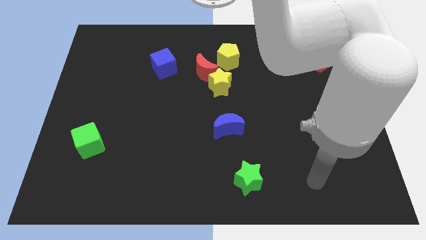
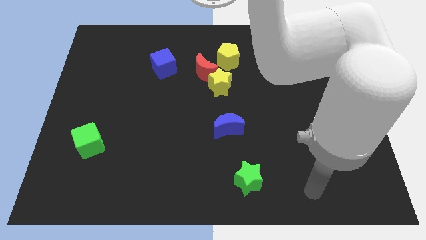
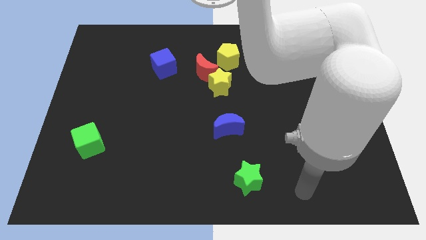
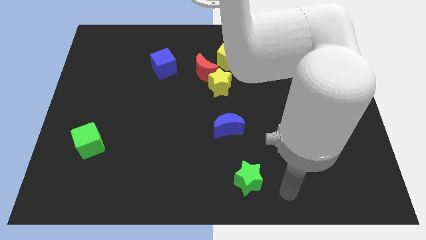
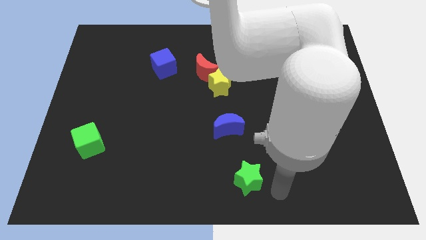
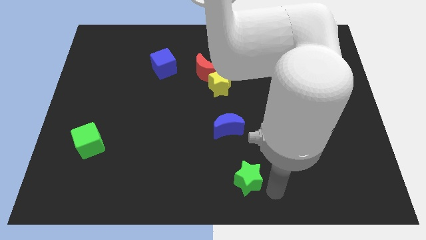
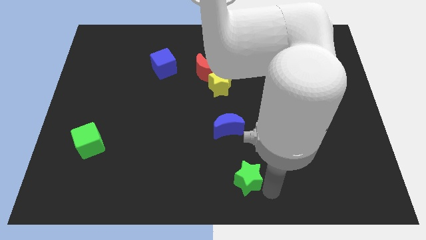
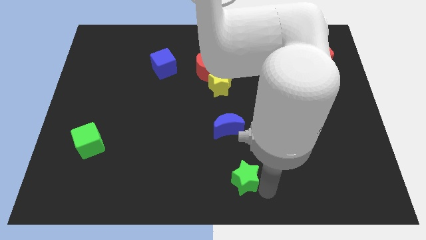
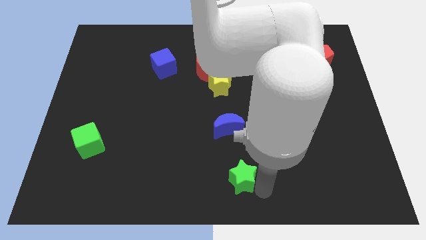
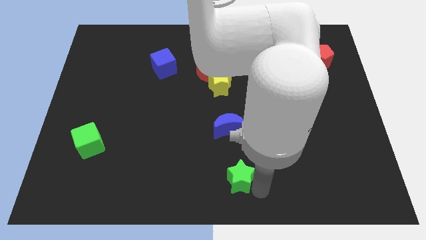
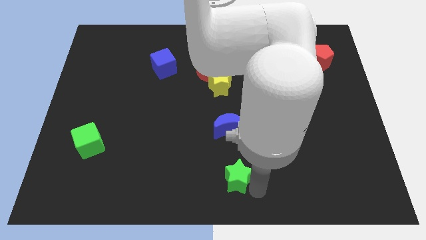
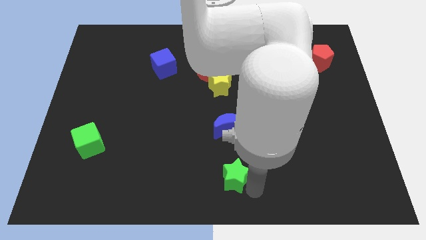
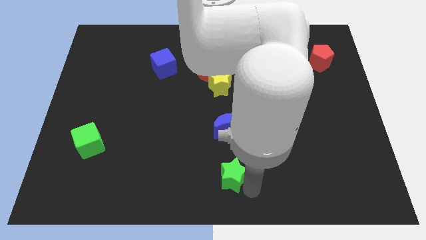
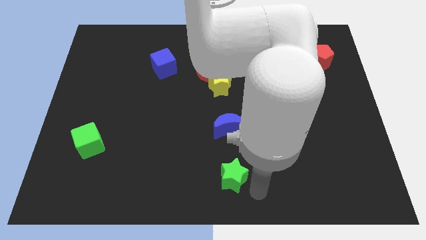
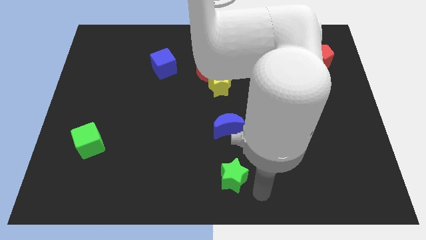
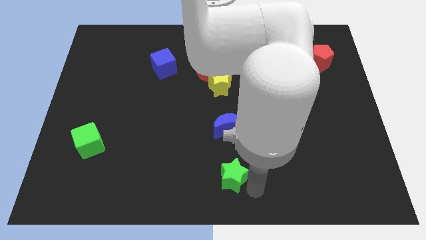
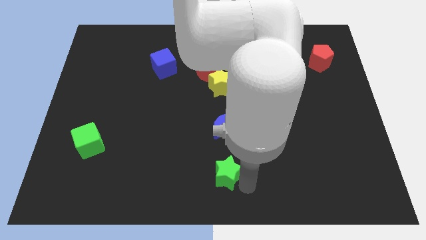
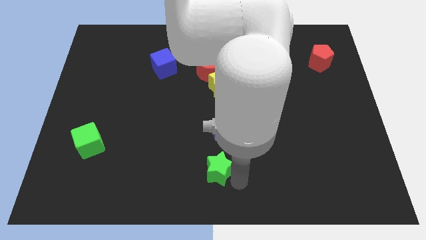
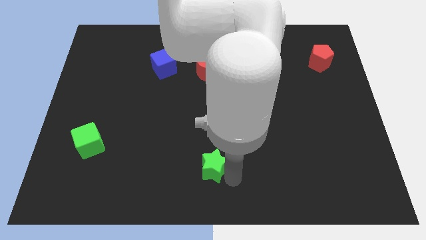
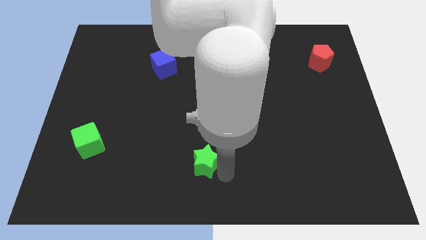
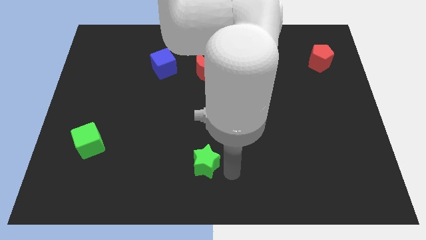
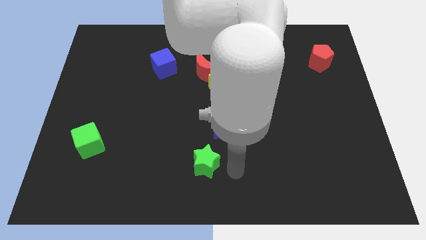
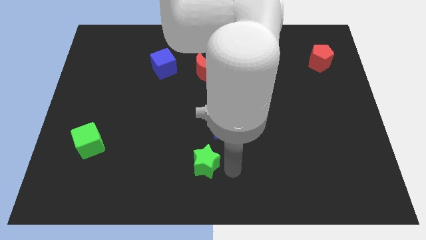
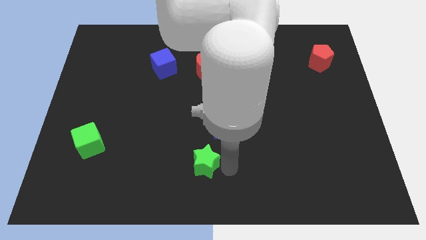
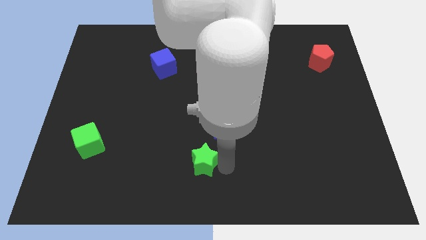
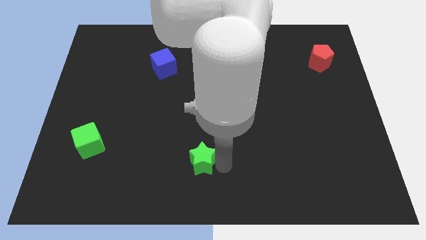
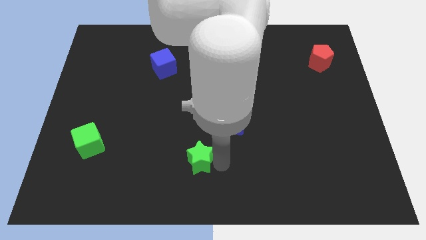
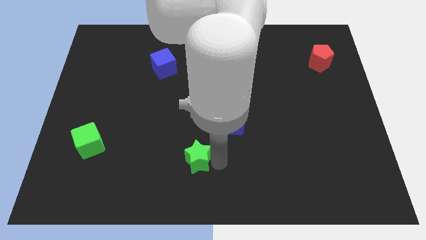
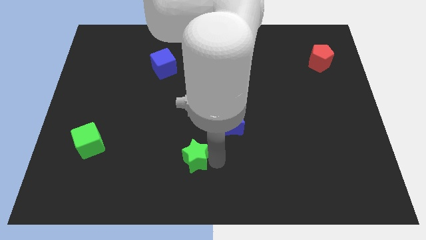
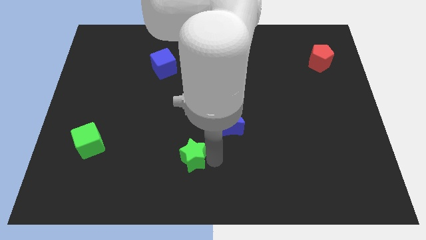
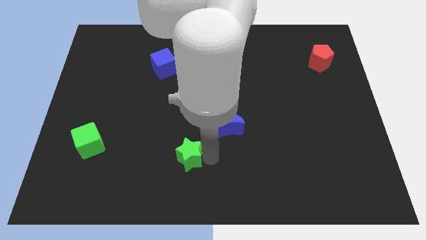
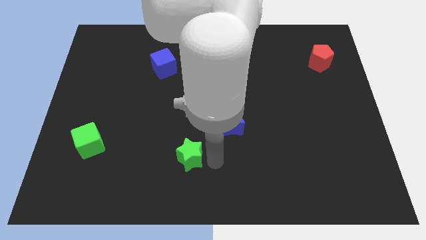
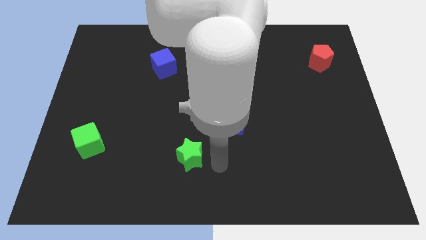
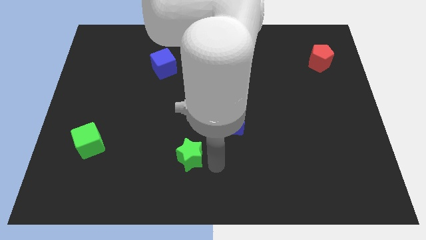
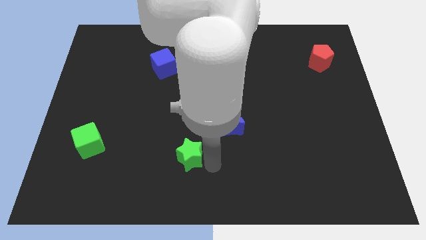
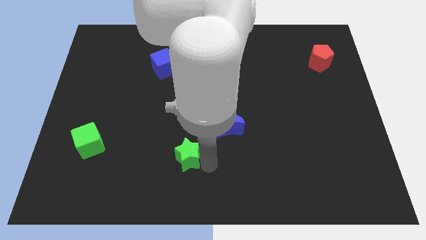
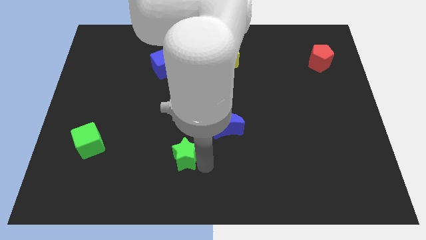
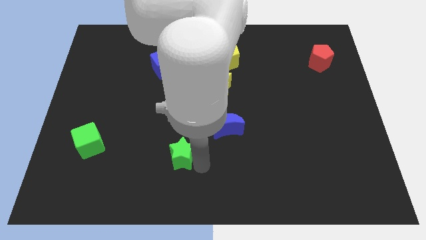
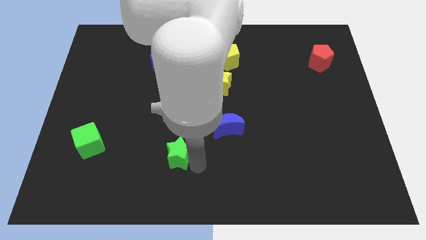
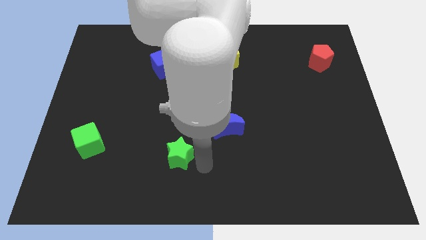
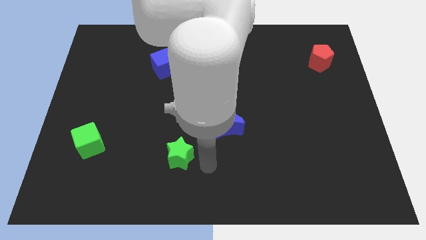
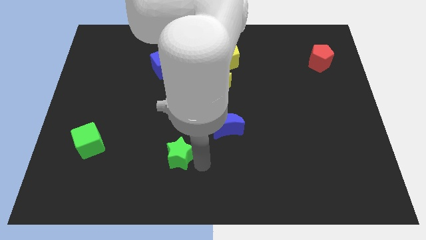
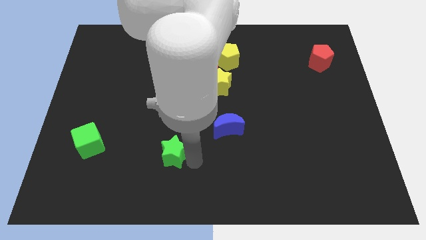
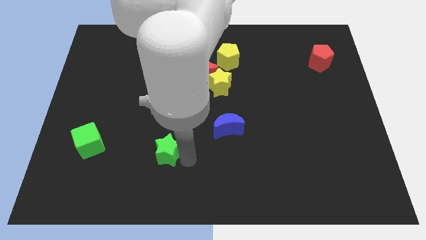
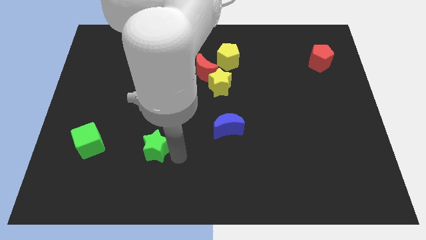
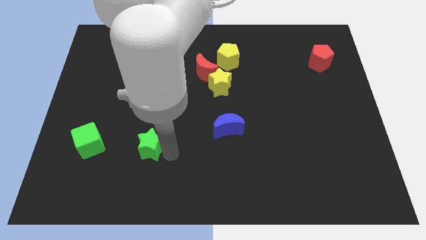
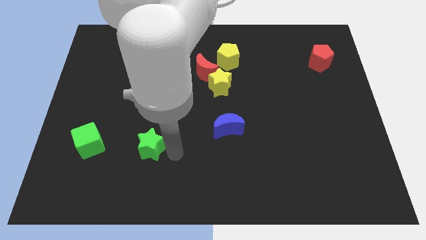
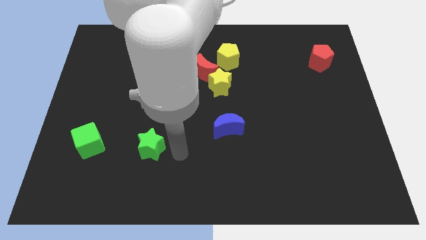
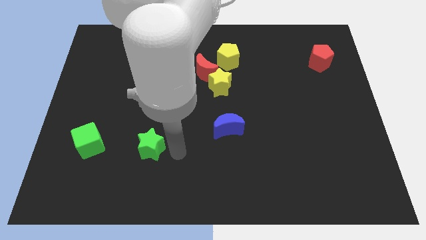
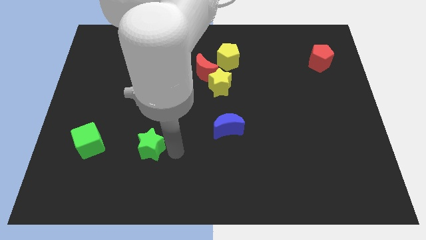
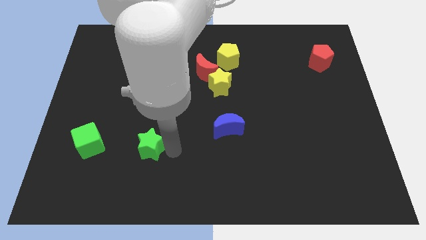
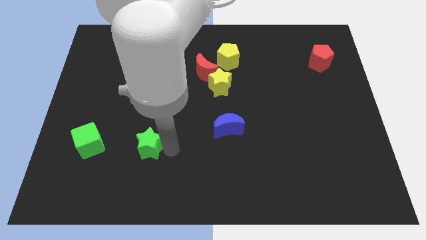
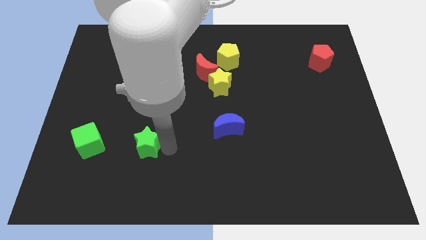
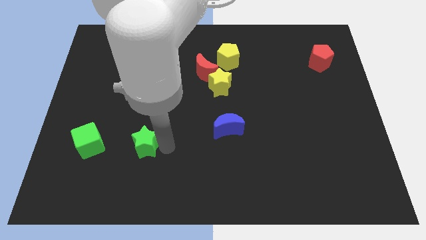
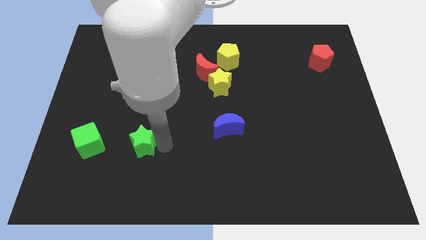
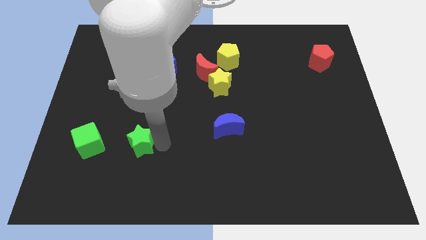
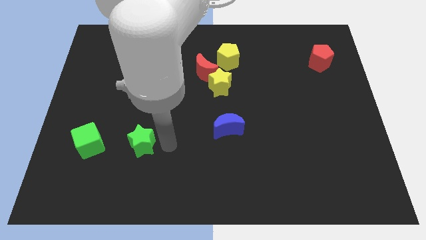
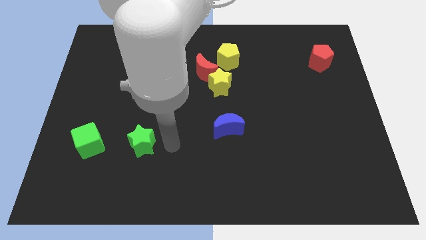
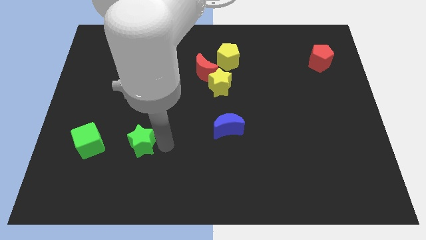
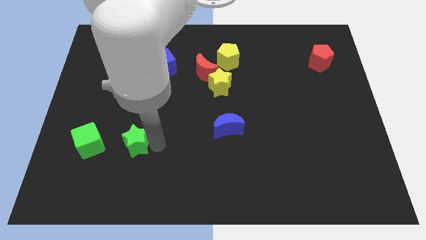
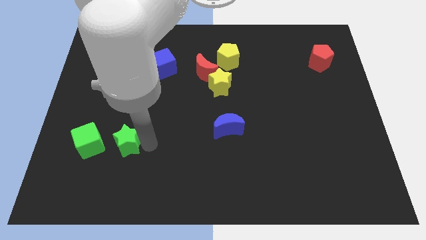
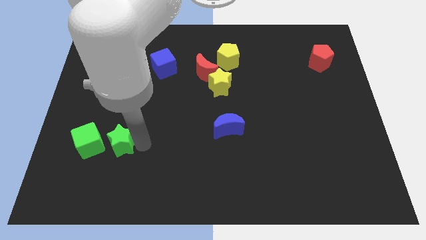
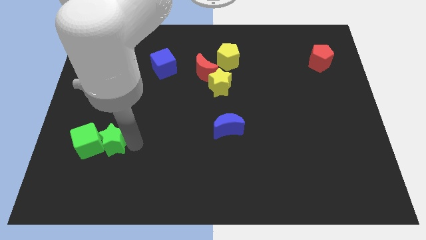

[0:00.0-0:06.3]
slide the green star close to the green cube

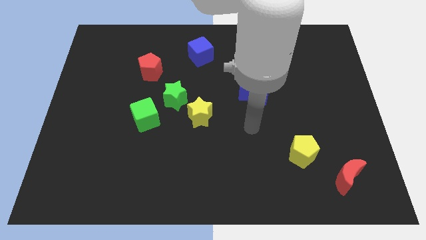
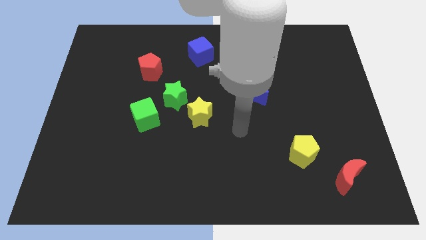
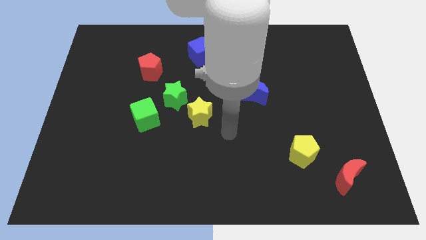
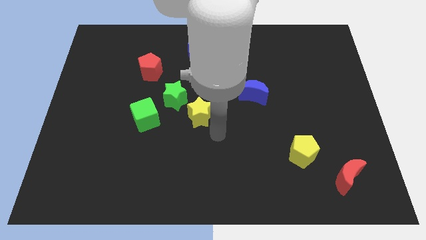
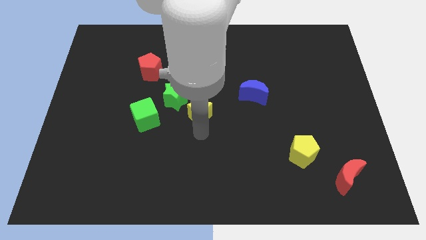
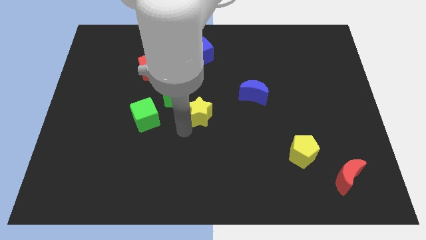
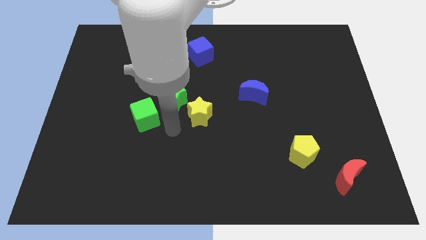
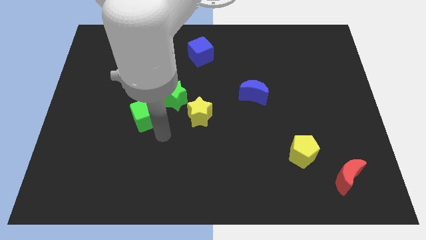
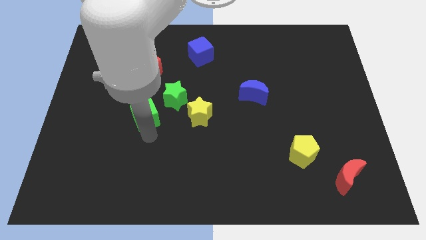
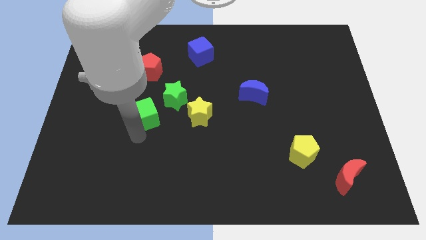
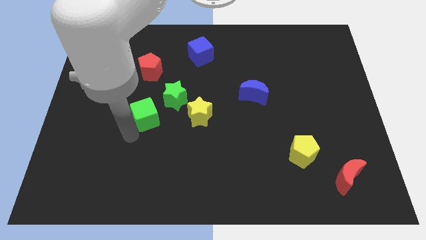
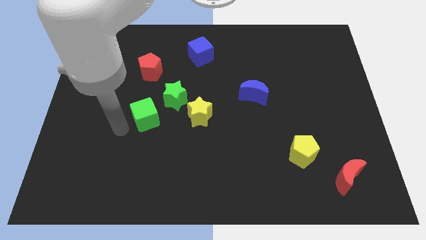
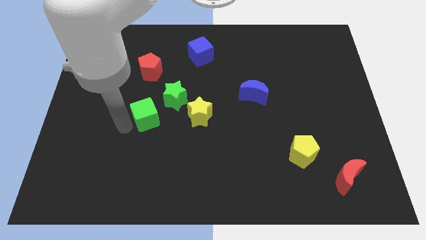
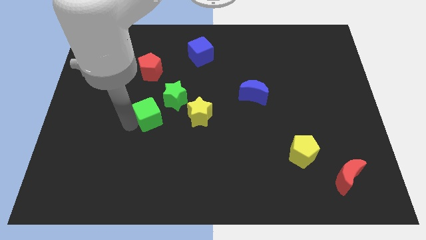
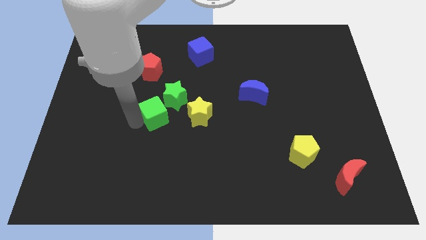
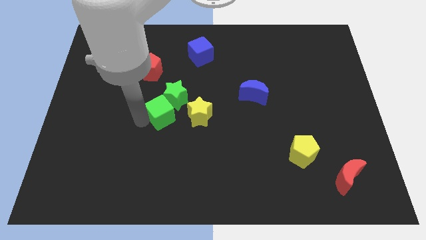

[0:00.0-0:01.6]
slide the green cube close to the green star
